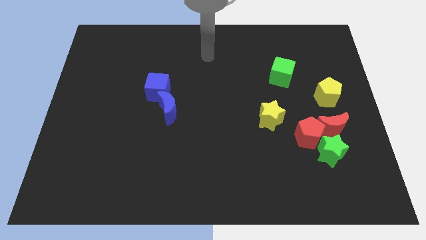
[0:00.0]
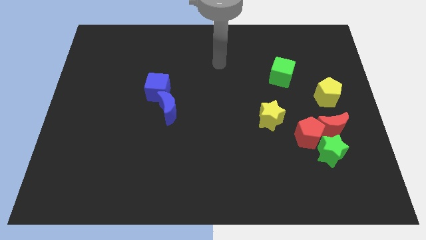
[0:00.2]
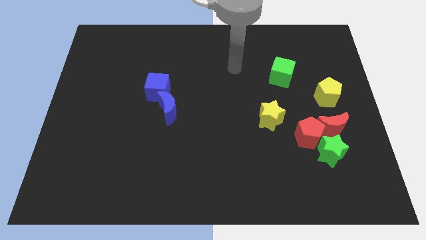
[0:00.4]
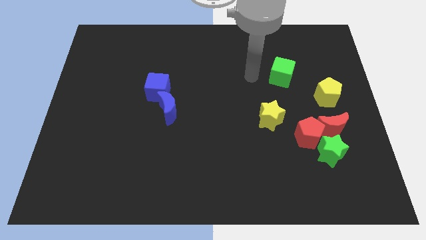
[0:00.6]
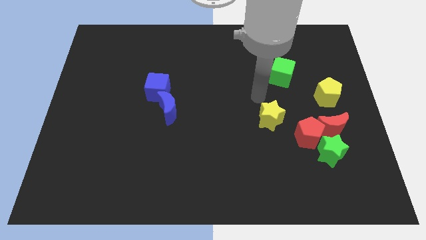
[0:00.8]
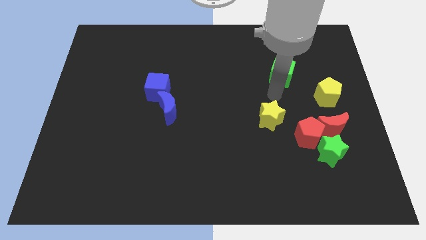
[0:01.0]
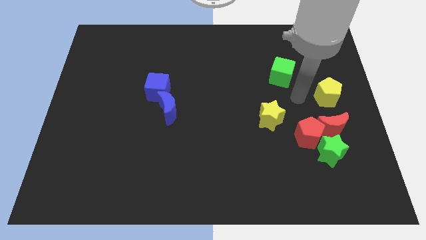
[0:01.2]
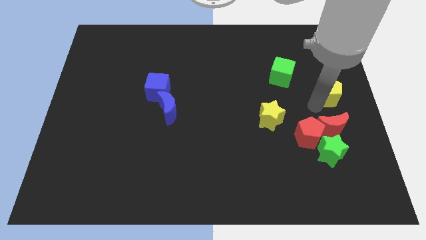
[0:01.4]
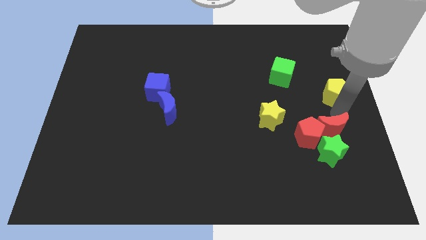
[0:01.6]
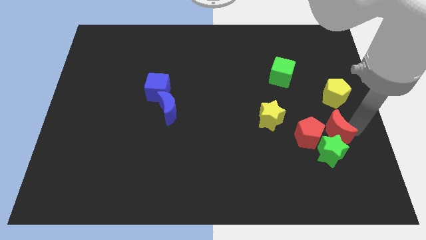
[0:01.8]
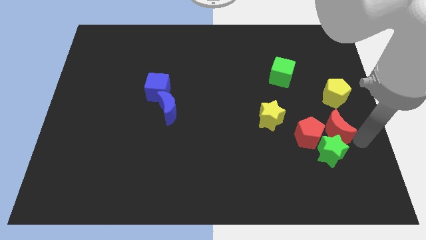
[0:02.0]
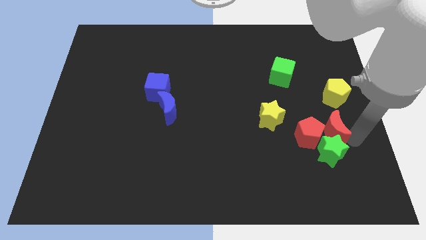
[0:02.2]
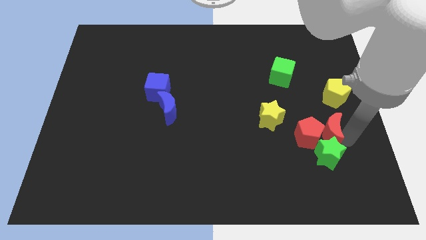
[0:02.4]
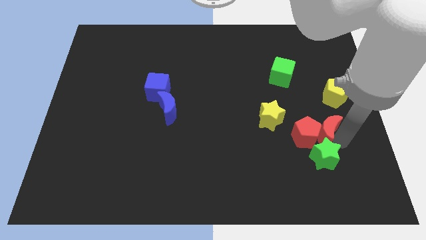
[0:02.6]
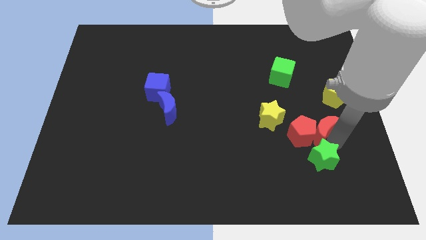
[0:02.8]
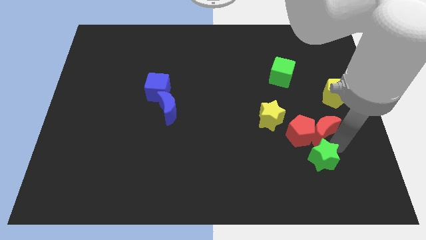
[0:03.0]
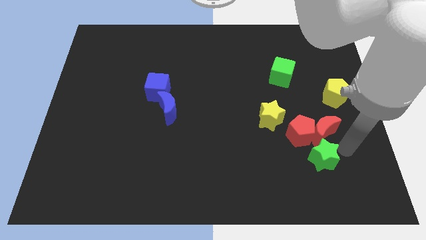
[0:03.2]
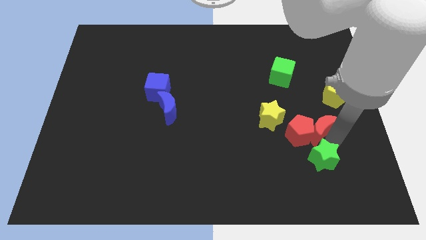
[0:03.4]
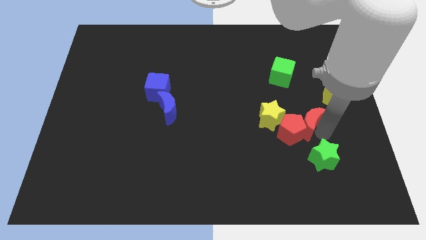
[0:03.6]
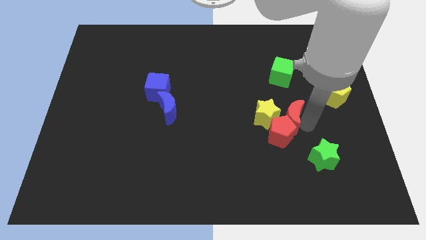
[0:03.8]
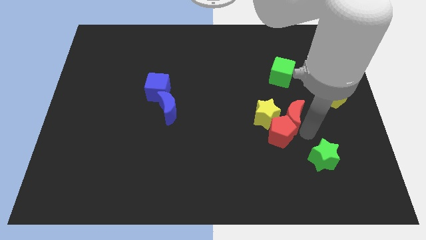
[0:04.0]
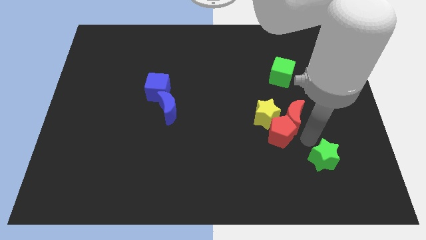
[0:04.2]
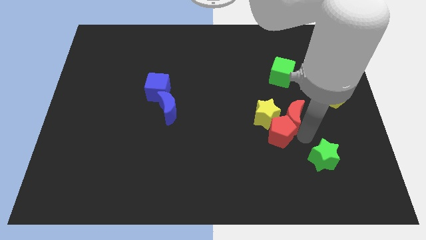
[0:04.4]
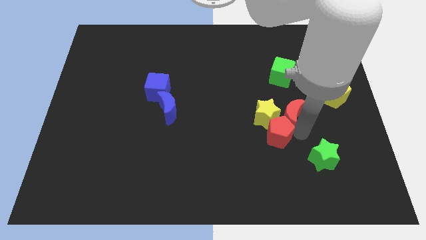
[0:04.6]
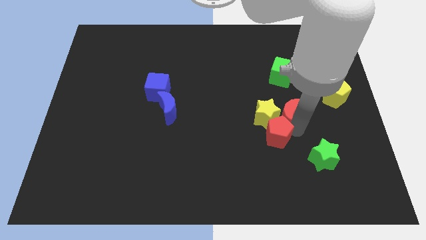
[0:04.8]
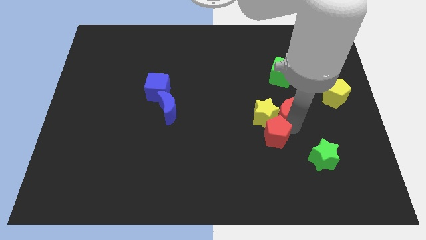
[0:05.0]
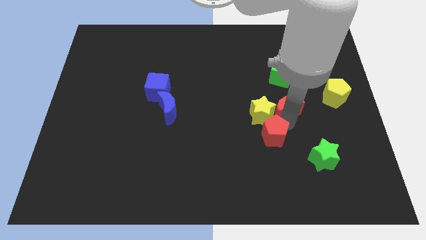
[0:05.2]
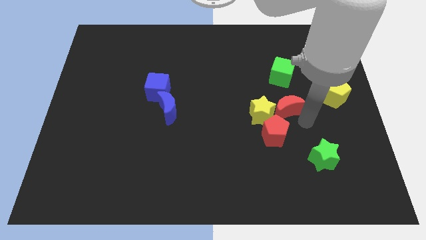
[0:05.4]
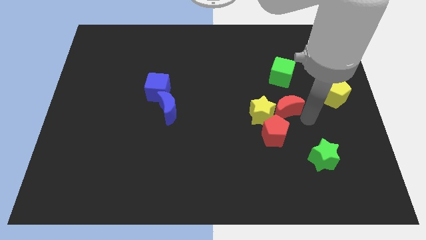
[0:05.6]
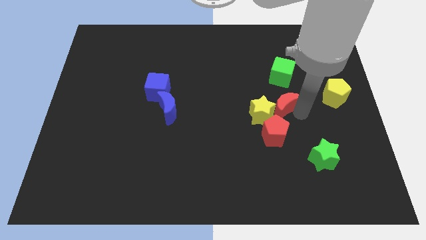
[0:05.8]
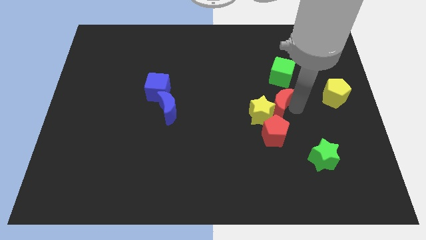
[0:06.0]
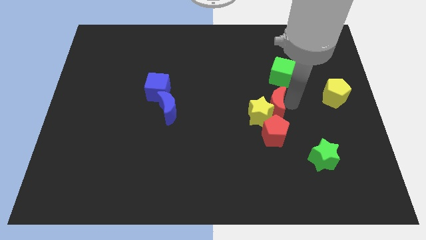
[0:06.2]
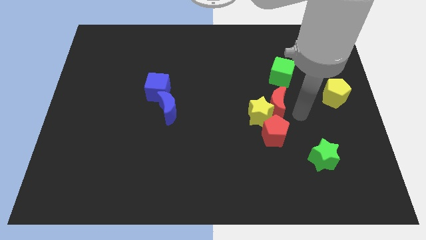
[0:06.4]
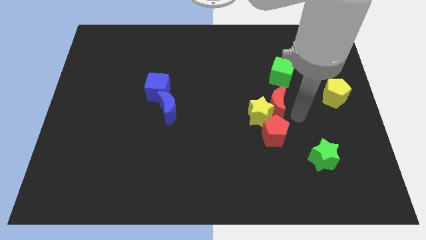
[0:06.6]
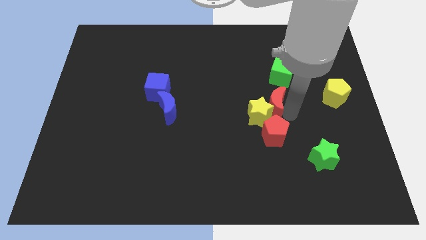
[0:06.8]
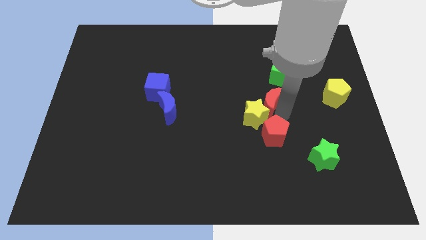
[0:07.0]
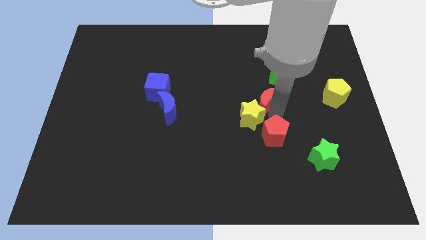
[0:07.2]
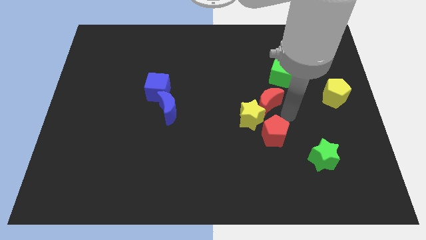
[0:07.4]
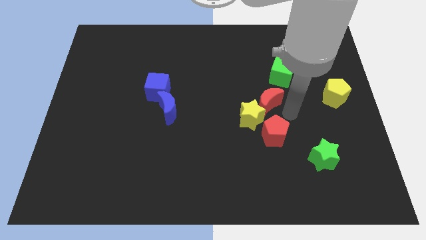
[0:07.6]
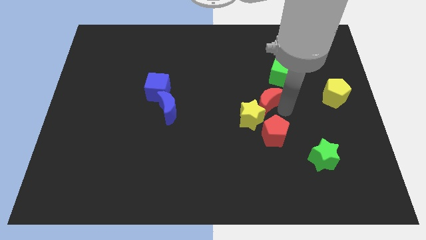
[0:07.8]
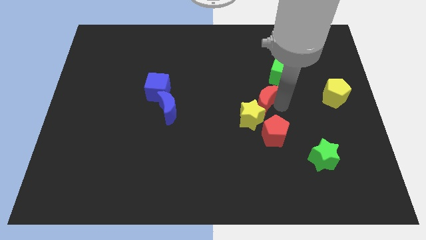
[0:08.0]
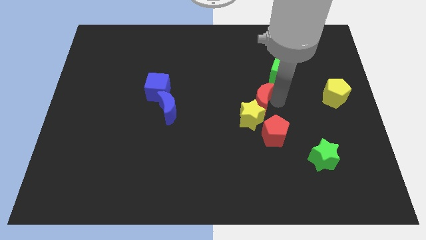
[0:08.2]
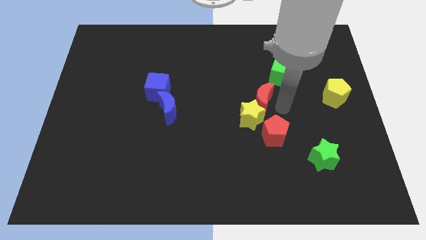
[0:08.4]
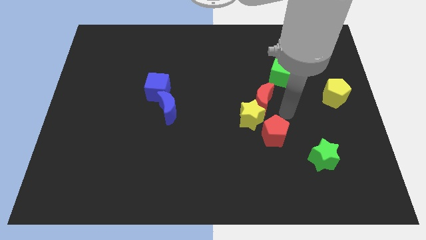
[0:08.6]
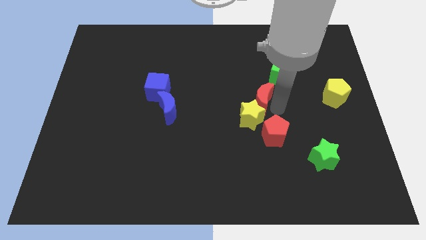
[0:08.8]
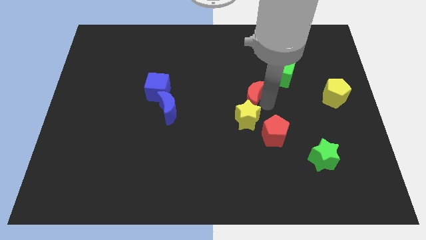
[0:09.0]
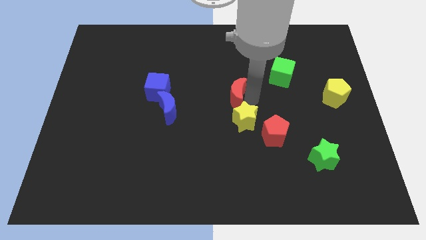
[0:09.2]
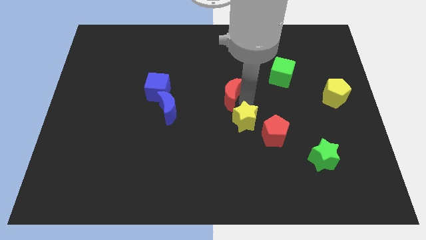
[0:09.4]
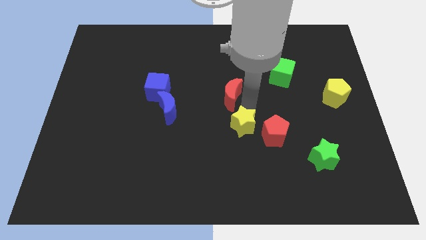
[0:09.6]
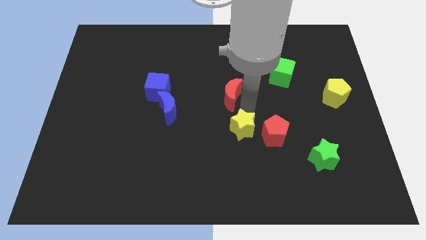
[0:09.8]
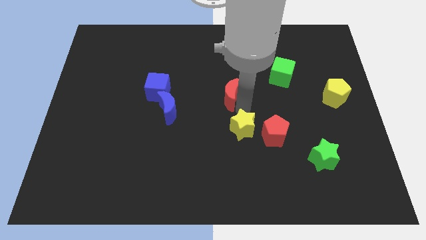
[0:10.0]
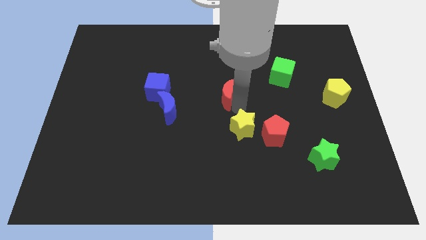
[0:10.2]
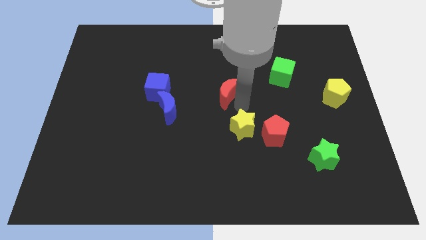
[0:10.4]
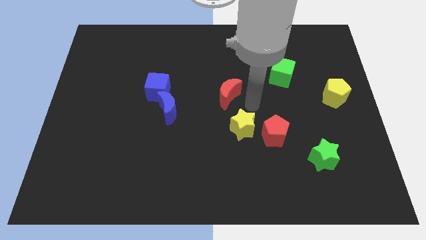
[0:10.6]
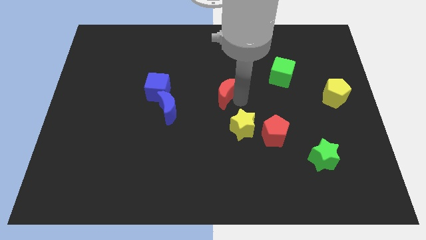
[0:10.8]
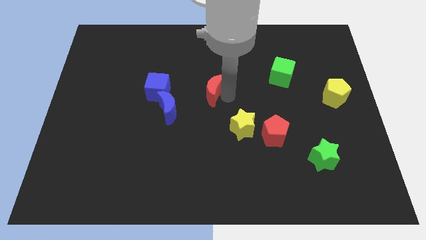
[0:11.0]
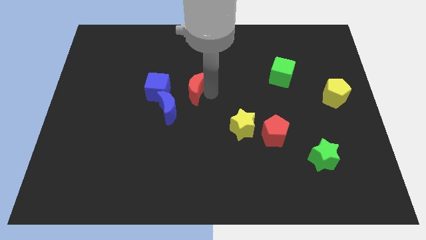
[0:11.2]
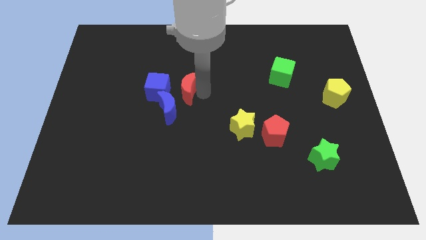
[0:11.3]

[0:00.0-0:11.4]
push the red moon to the top side of the blue moon

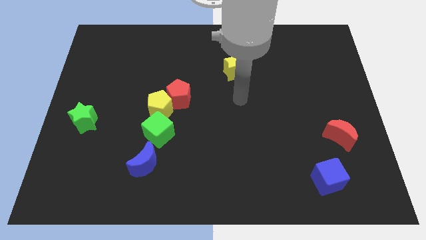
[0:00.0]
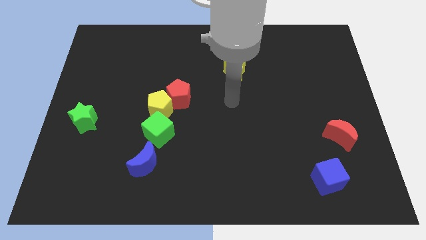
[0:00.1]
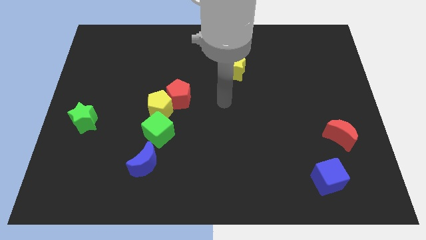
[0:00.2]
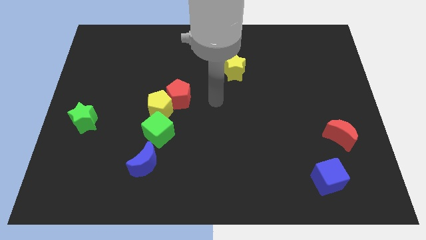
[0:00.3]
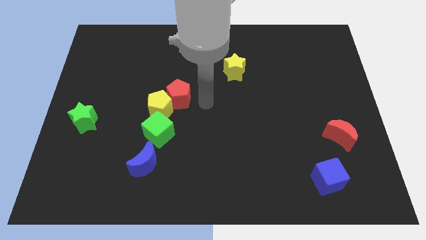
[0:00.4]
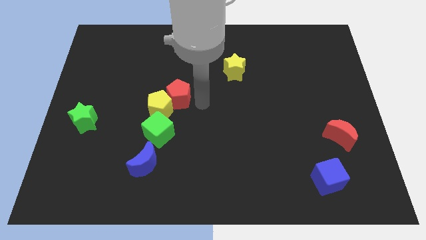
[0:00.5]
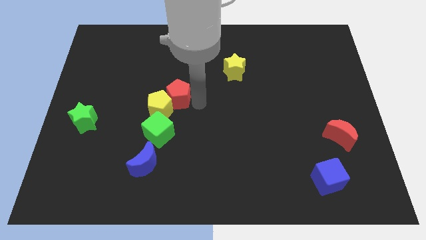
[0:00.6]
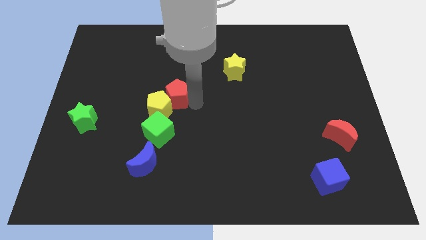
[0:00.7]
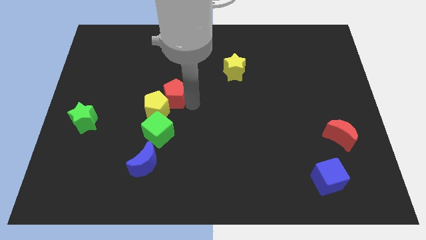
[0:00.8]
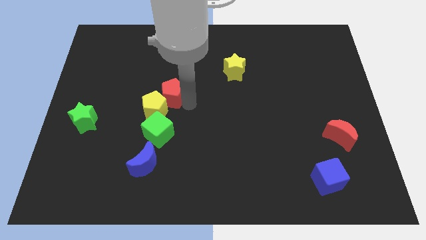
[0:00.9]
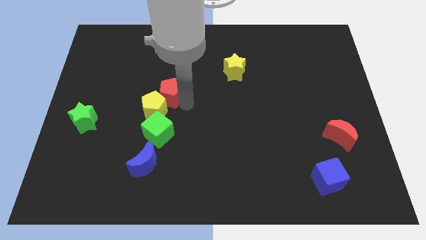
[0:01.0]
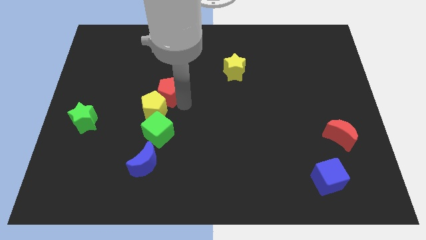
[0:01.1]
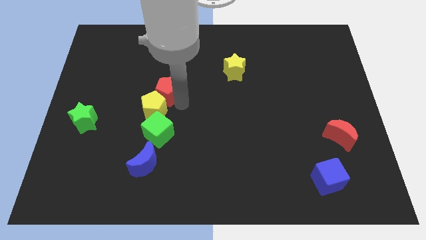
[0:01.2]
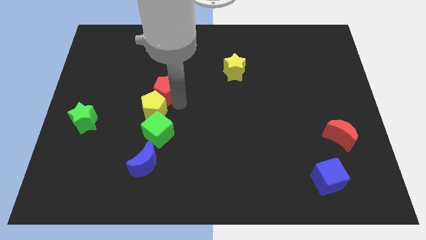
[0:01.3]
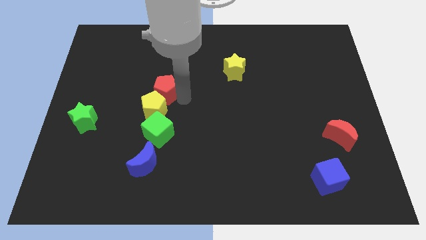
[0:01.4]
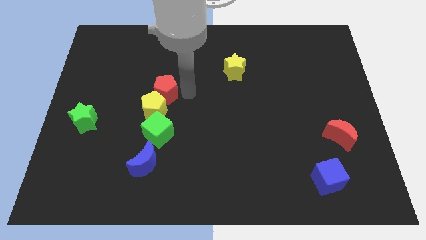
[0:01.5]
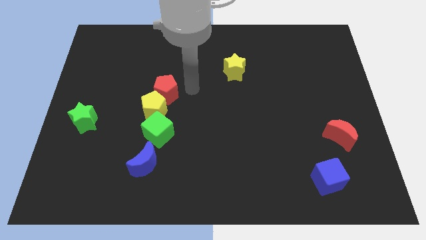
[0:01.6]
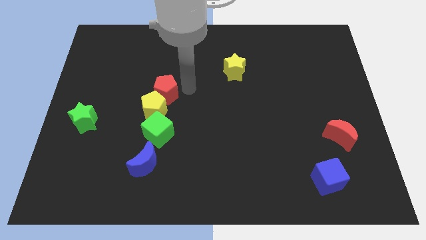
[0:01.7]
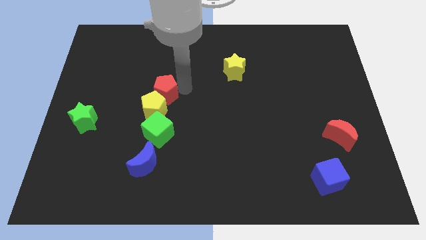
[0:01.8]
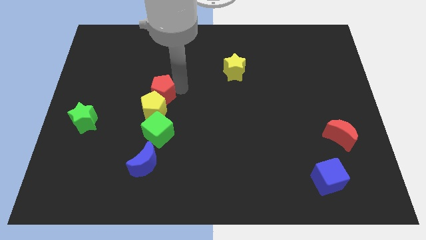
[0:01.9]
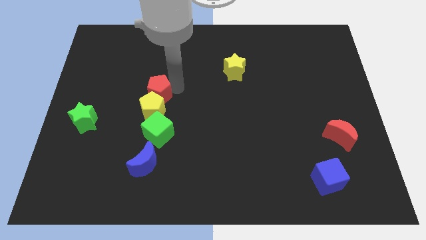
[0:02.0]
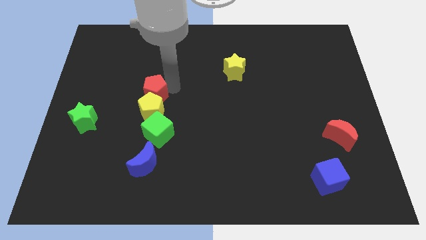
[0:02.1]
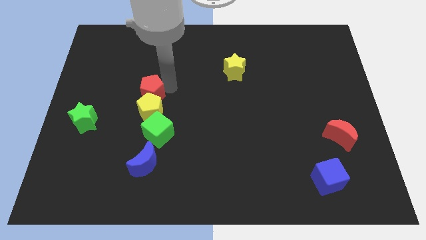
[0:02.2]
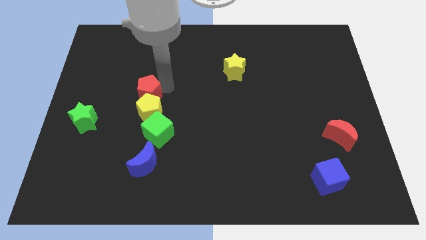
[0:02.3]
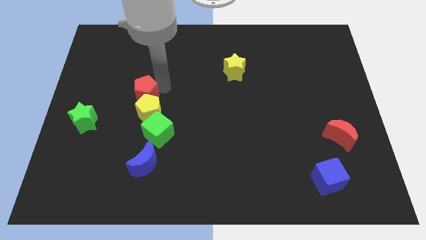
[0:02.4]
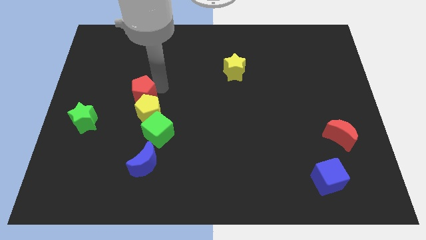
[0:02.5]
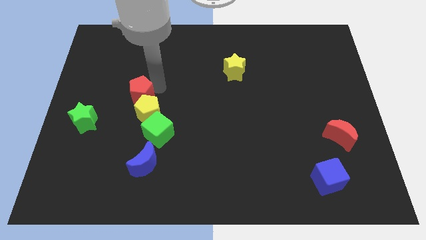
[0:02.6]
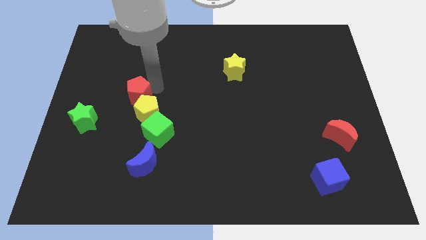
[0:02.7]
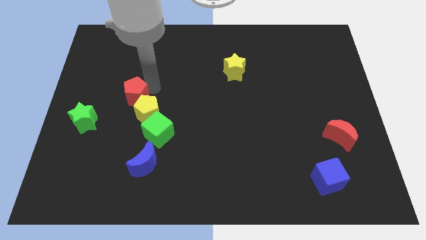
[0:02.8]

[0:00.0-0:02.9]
slide the red pentagon to the top right of the green star
